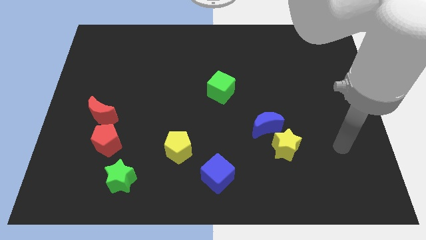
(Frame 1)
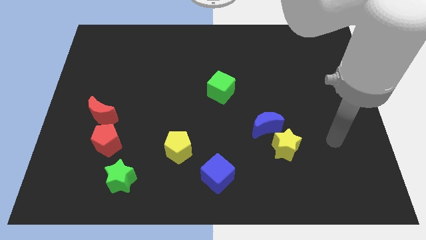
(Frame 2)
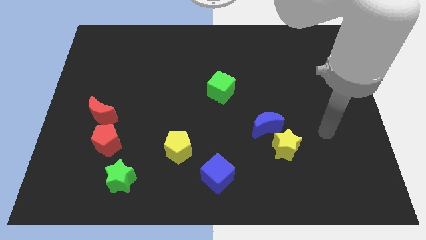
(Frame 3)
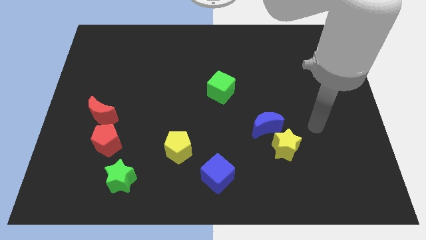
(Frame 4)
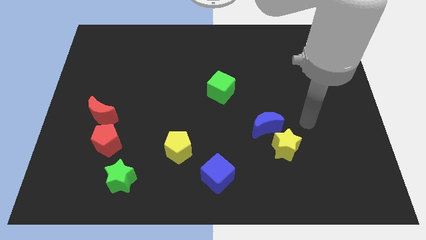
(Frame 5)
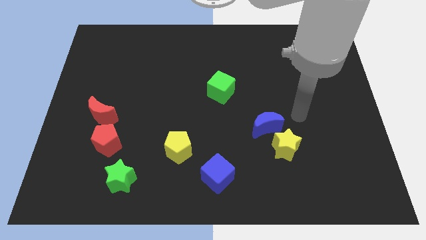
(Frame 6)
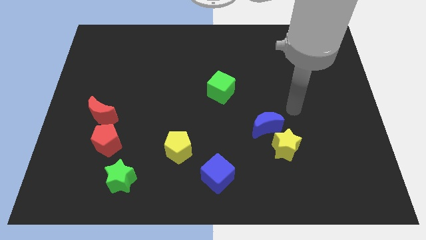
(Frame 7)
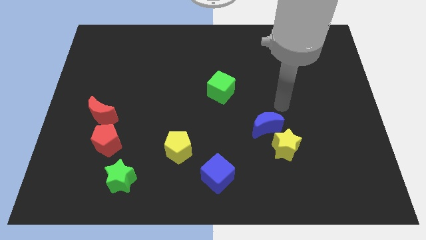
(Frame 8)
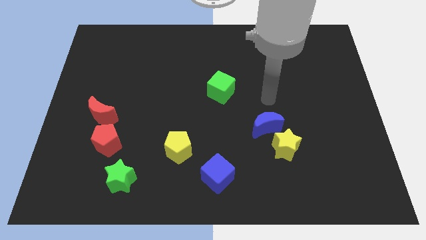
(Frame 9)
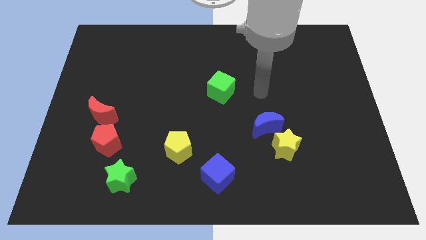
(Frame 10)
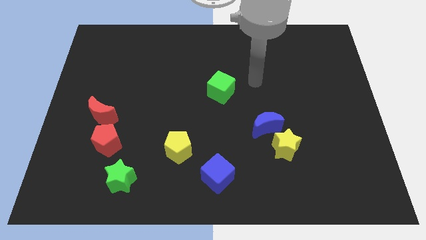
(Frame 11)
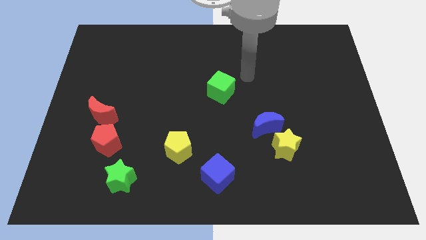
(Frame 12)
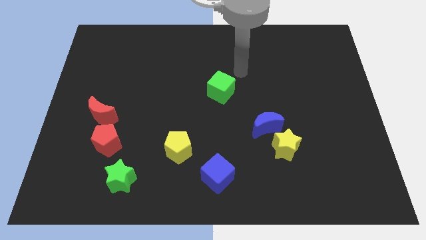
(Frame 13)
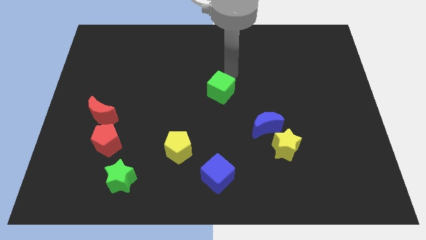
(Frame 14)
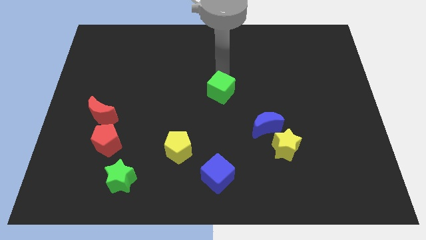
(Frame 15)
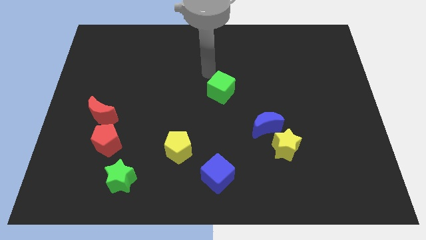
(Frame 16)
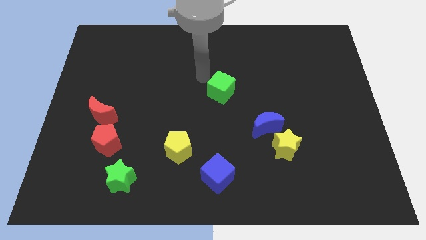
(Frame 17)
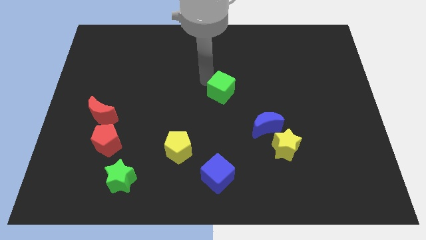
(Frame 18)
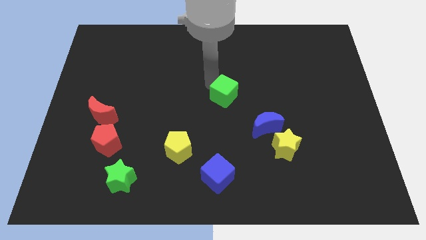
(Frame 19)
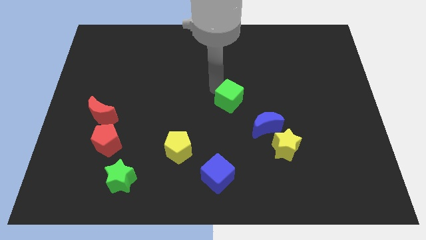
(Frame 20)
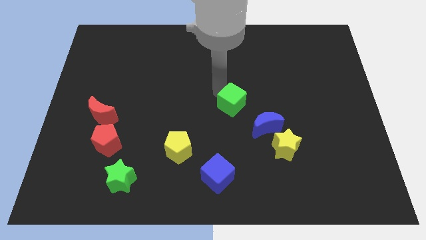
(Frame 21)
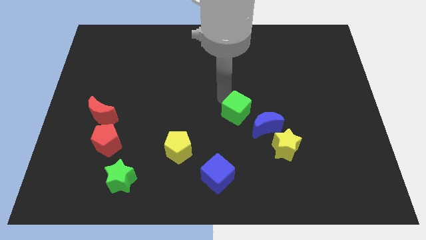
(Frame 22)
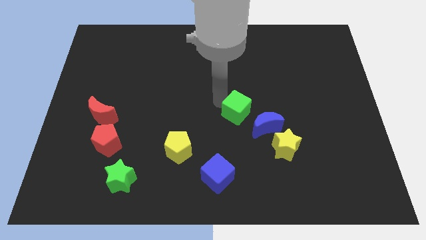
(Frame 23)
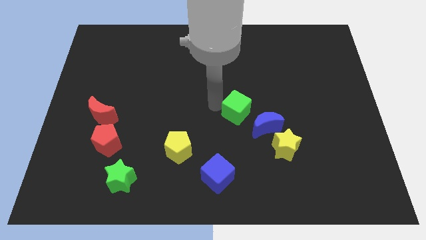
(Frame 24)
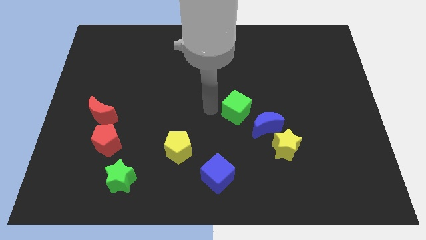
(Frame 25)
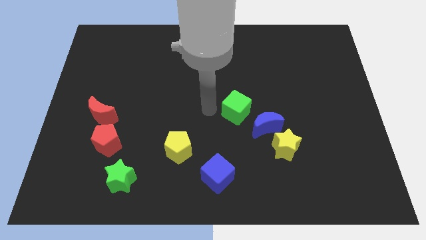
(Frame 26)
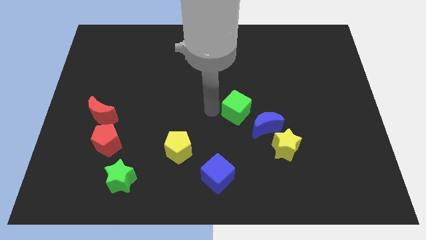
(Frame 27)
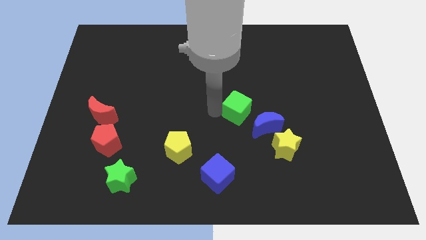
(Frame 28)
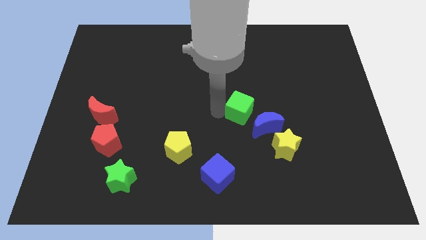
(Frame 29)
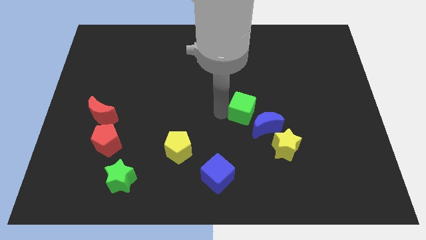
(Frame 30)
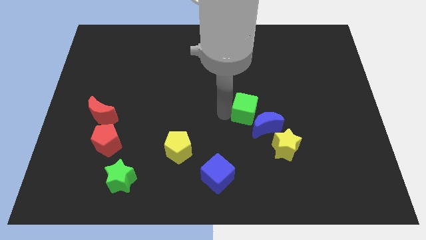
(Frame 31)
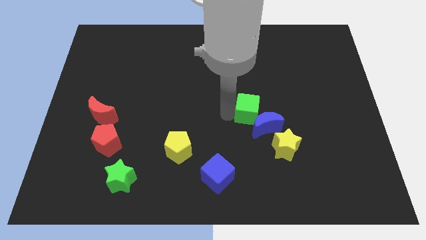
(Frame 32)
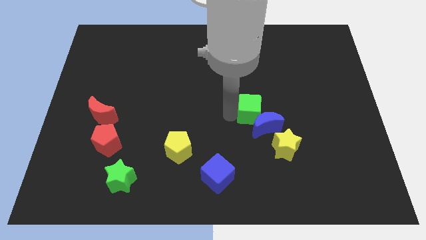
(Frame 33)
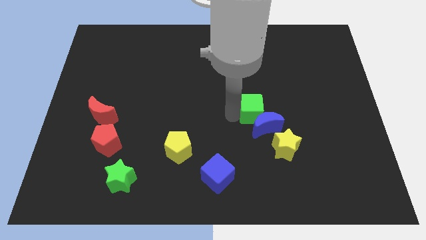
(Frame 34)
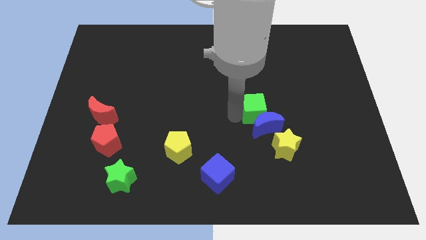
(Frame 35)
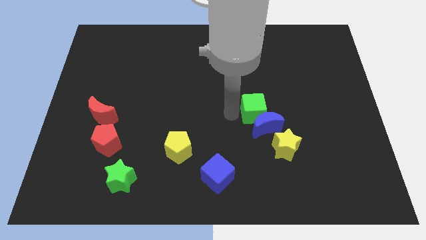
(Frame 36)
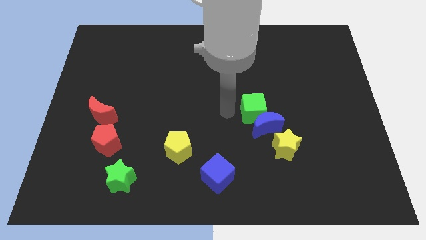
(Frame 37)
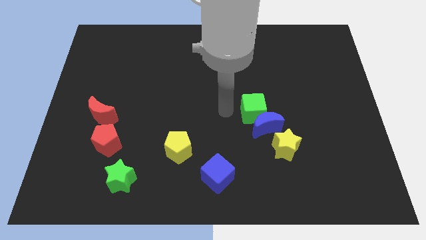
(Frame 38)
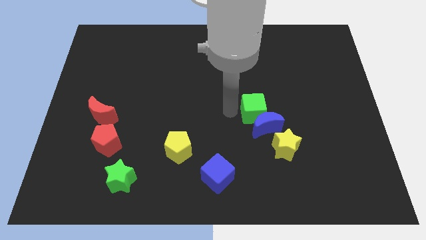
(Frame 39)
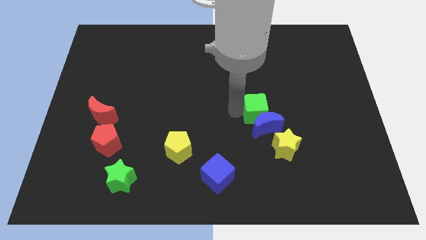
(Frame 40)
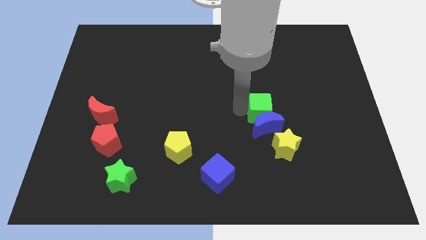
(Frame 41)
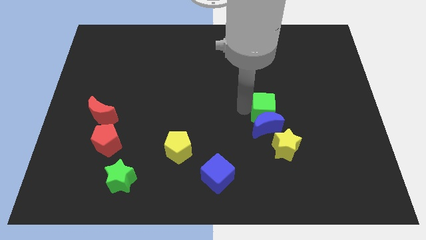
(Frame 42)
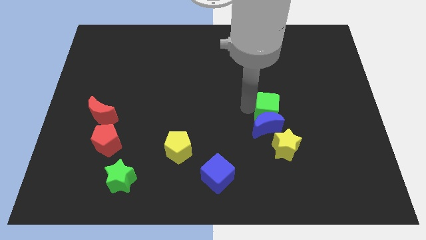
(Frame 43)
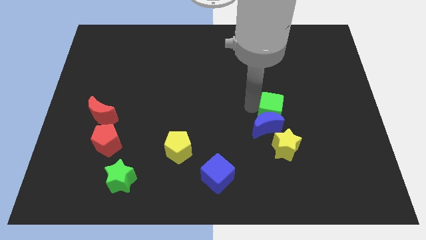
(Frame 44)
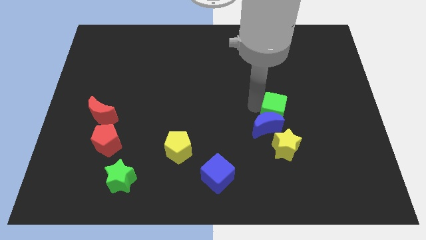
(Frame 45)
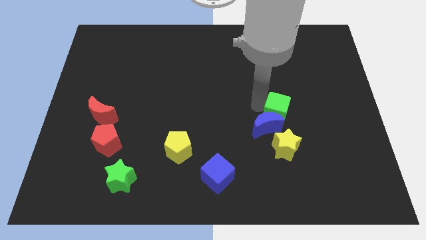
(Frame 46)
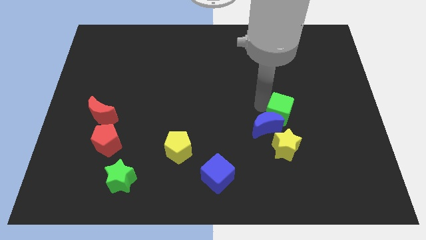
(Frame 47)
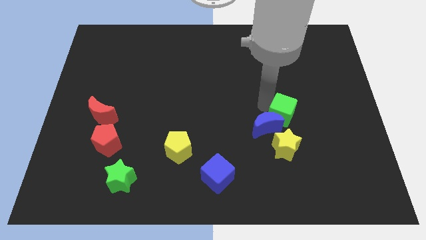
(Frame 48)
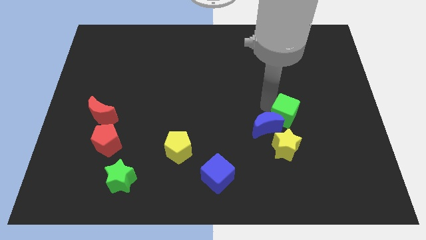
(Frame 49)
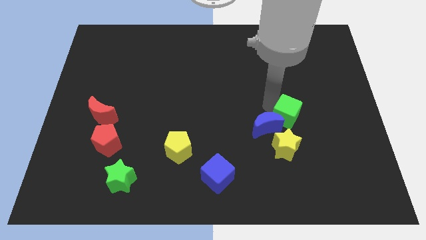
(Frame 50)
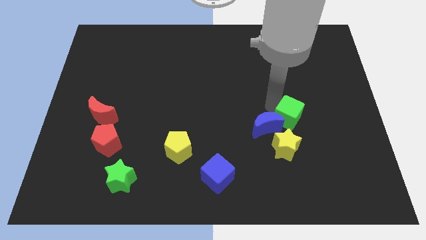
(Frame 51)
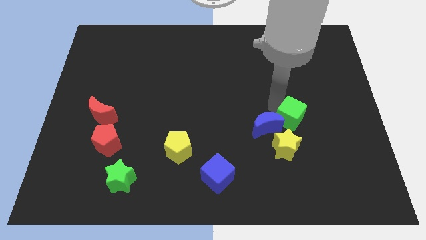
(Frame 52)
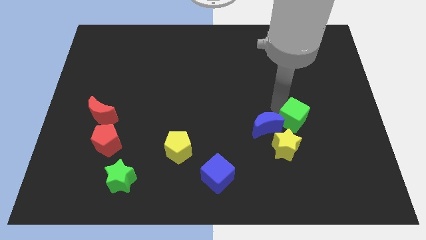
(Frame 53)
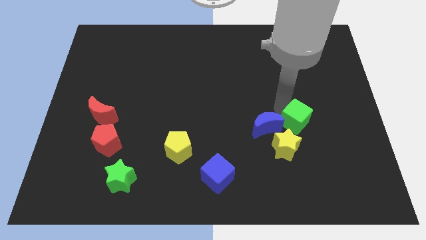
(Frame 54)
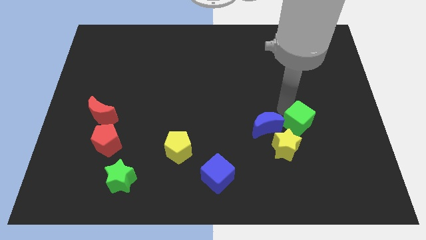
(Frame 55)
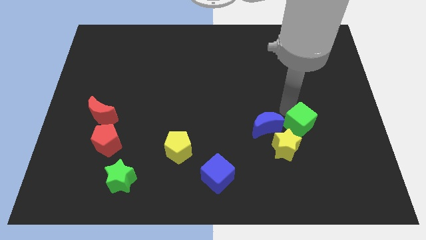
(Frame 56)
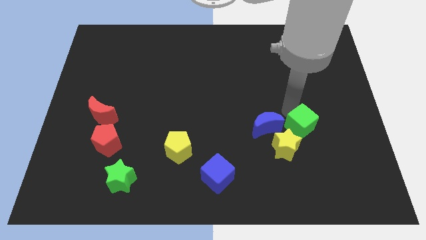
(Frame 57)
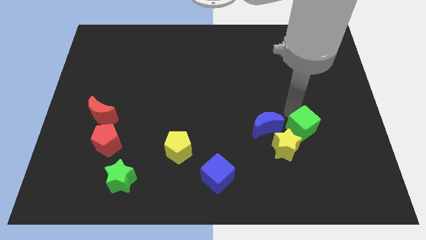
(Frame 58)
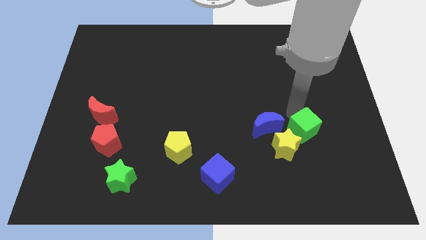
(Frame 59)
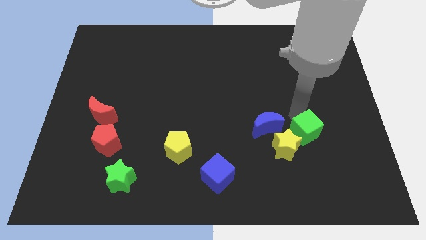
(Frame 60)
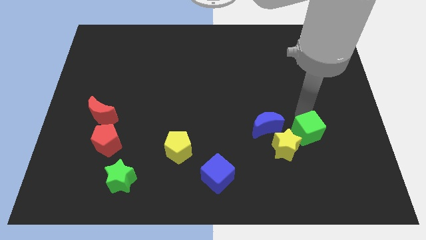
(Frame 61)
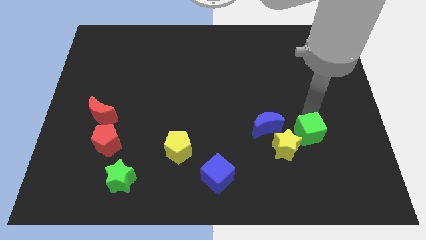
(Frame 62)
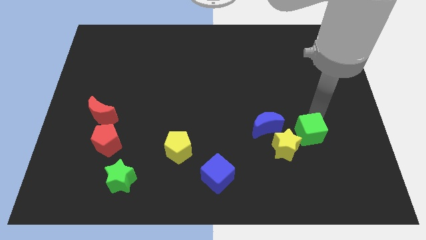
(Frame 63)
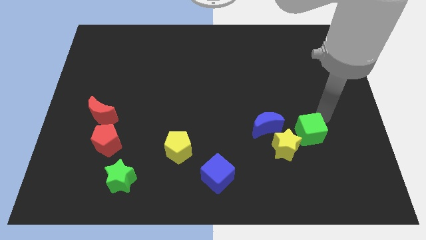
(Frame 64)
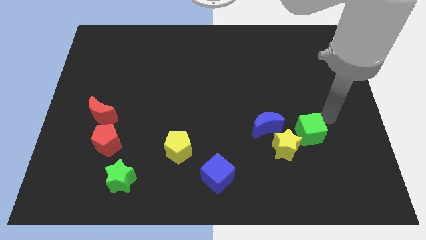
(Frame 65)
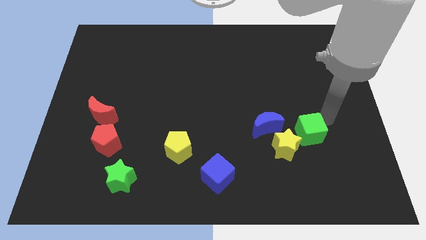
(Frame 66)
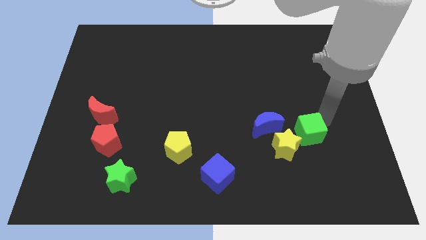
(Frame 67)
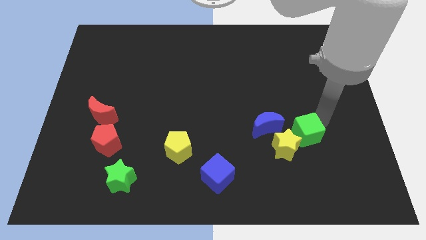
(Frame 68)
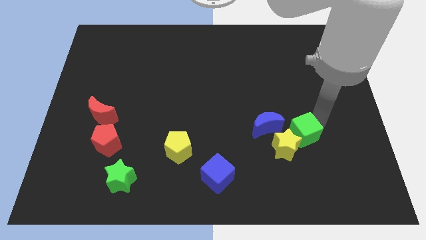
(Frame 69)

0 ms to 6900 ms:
put the green cube to the bottom right side of the blue moon

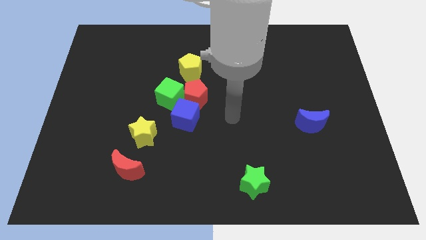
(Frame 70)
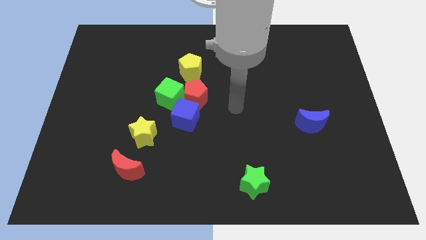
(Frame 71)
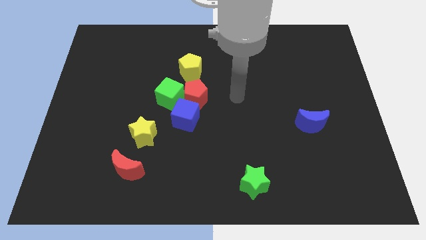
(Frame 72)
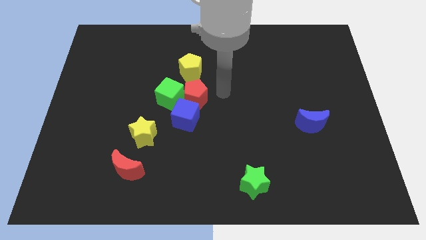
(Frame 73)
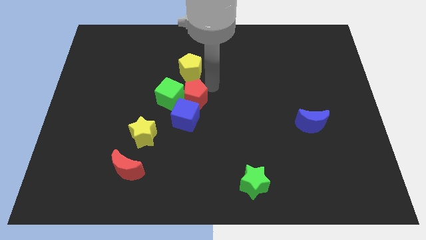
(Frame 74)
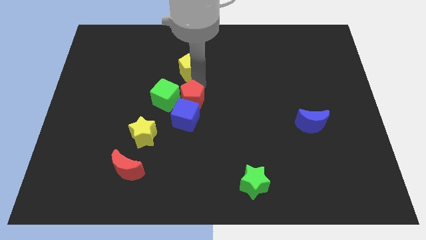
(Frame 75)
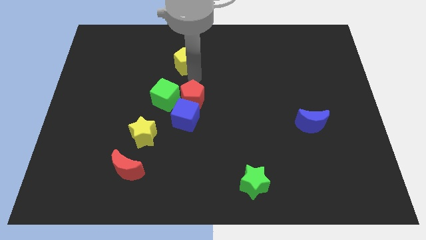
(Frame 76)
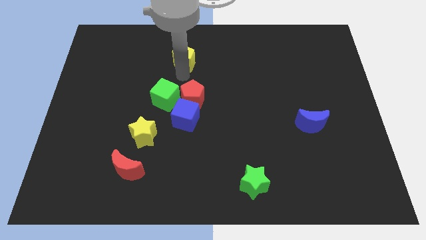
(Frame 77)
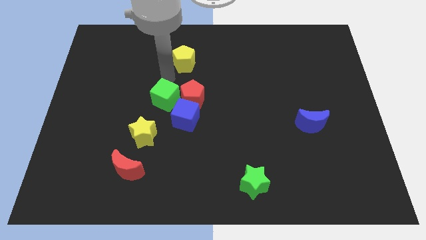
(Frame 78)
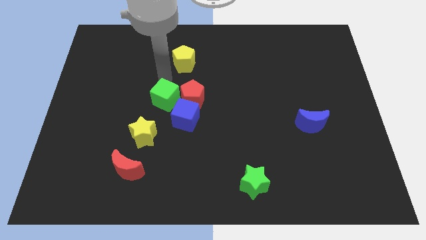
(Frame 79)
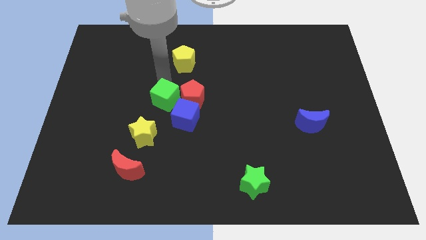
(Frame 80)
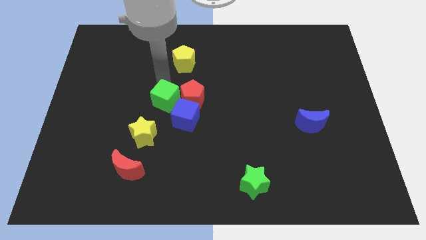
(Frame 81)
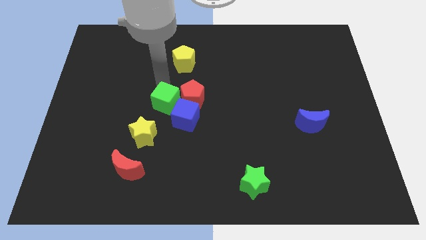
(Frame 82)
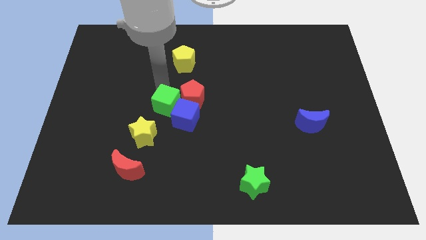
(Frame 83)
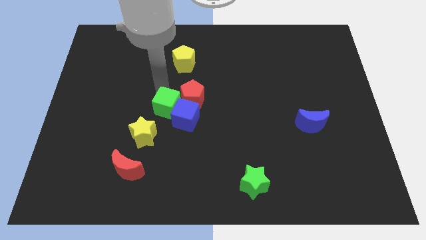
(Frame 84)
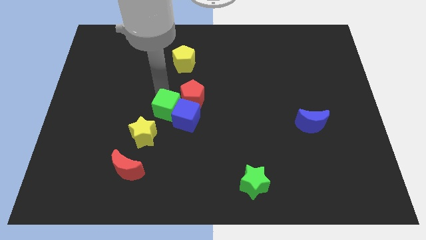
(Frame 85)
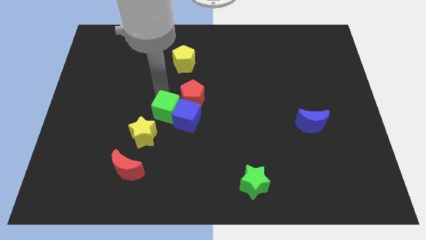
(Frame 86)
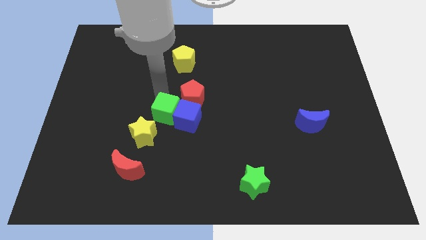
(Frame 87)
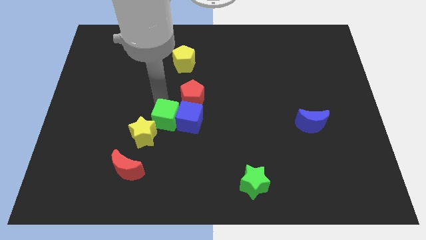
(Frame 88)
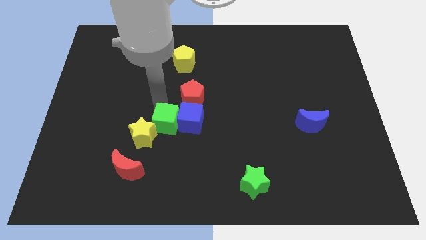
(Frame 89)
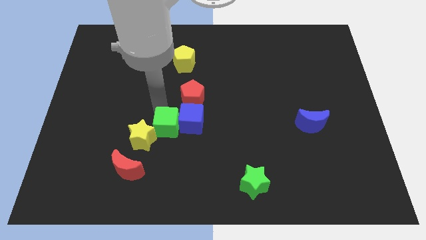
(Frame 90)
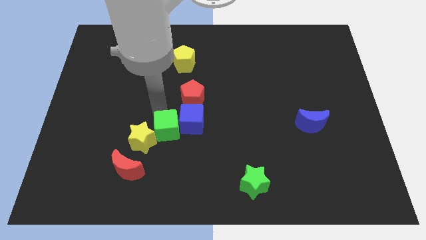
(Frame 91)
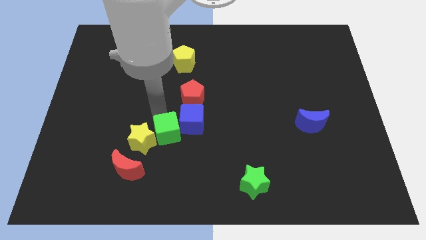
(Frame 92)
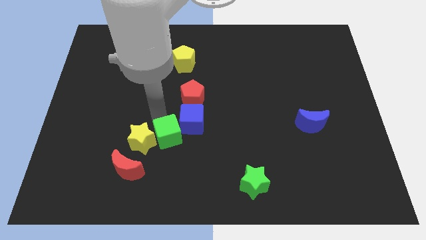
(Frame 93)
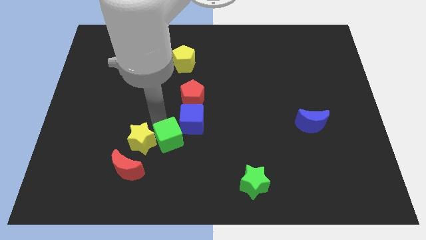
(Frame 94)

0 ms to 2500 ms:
push the green cube to the bottom side of the blue cube
